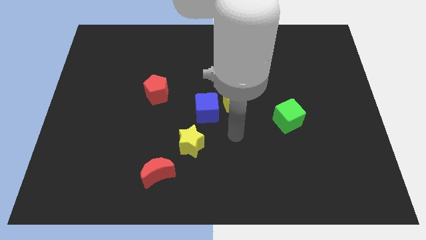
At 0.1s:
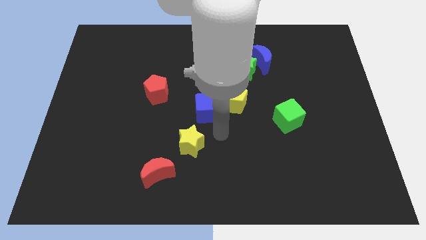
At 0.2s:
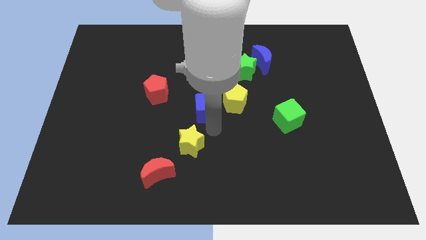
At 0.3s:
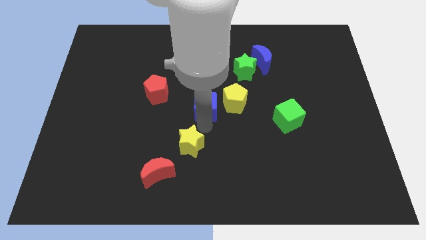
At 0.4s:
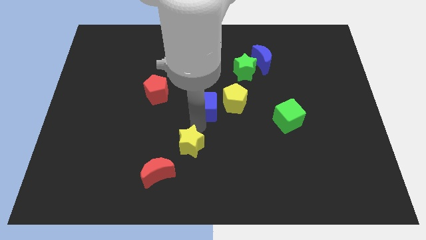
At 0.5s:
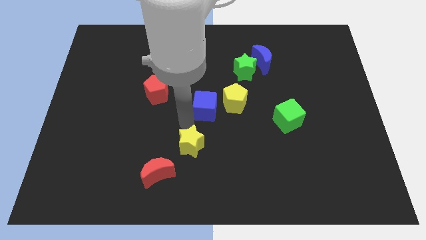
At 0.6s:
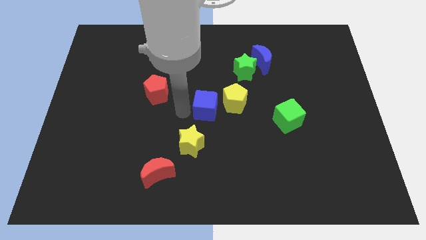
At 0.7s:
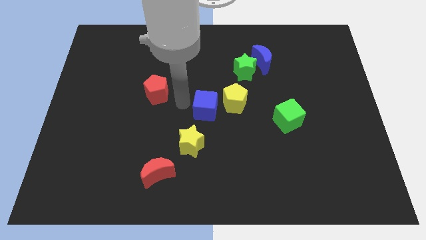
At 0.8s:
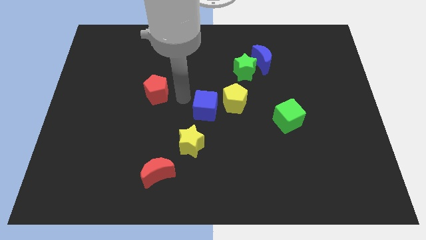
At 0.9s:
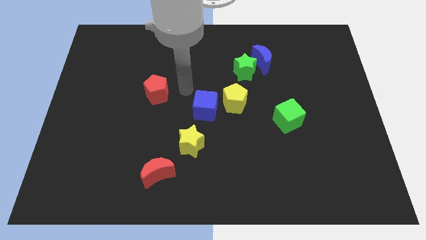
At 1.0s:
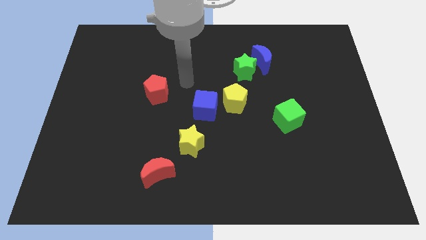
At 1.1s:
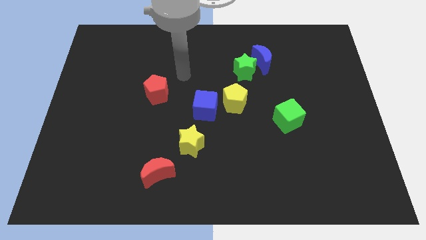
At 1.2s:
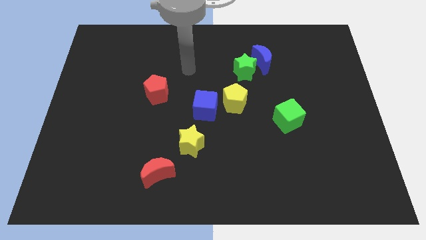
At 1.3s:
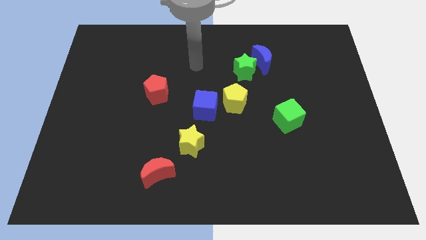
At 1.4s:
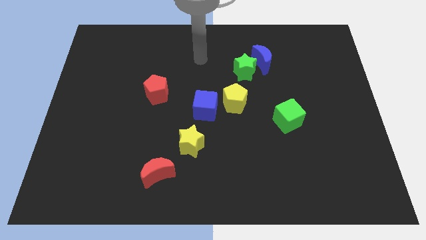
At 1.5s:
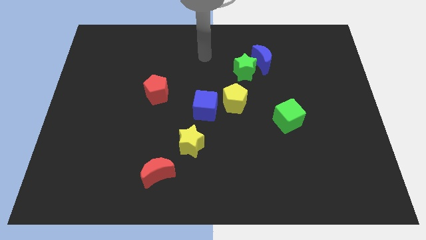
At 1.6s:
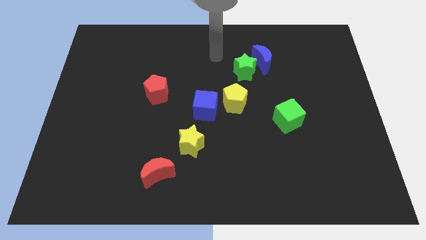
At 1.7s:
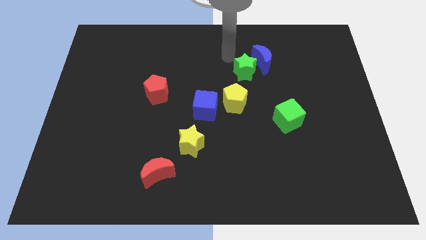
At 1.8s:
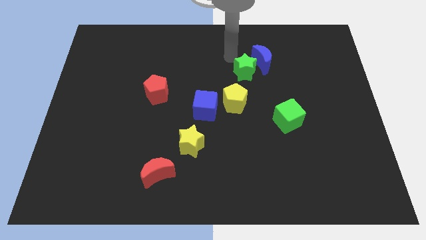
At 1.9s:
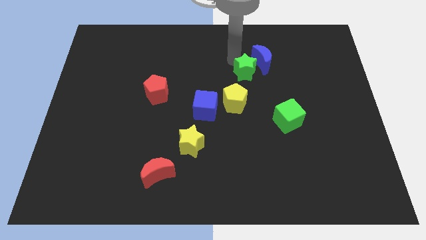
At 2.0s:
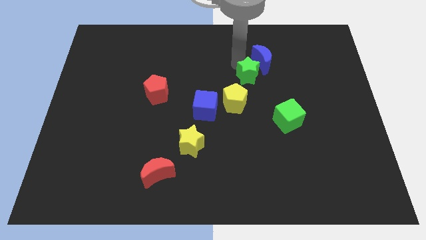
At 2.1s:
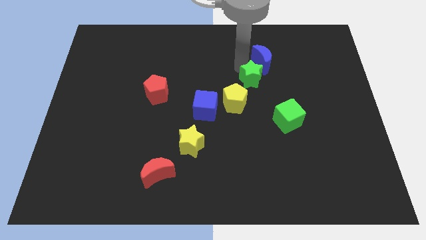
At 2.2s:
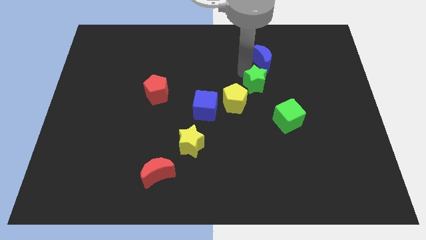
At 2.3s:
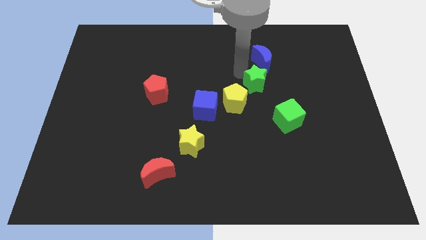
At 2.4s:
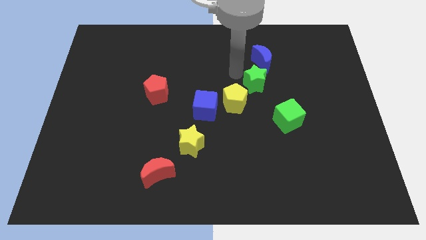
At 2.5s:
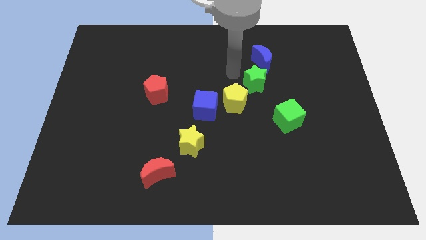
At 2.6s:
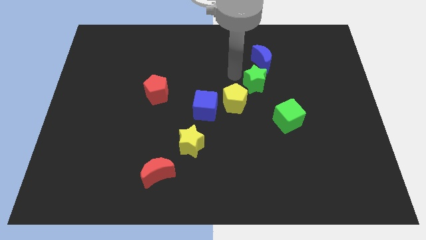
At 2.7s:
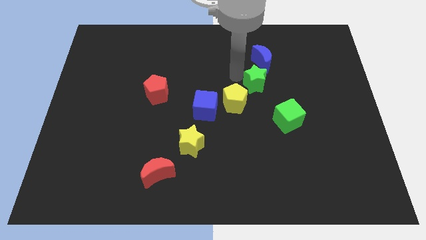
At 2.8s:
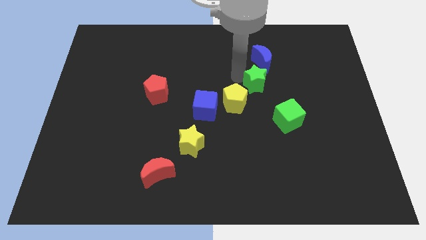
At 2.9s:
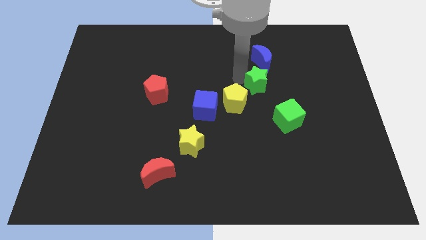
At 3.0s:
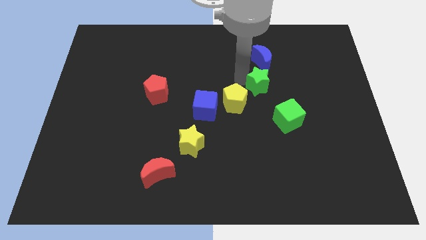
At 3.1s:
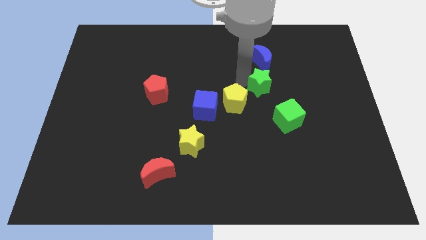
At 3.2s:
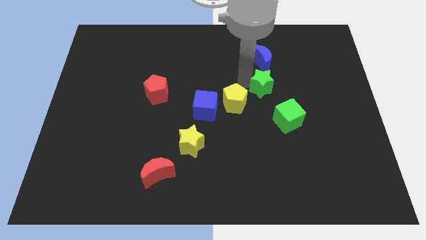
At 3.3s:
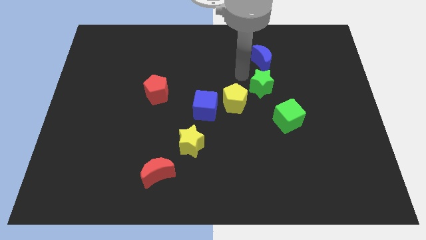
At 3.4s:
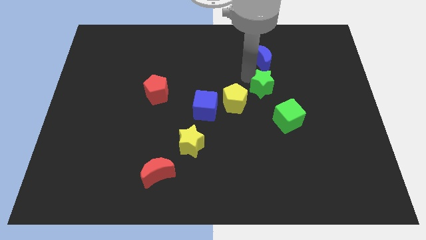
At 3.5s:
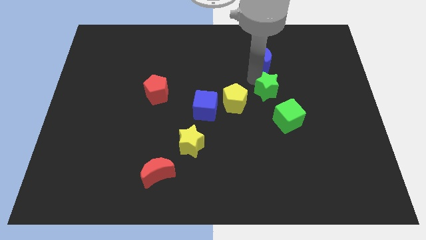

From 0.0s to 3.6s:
push the green star slightly down and to the right diagonally

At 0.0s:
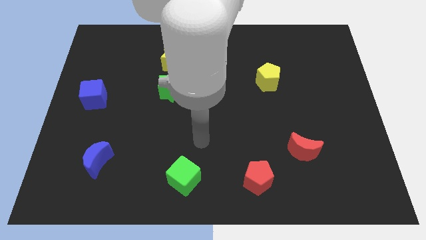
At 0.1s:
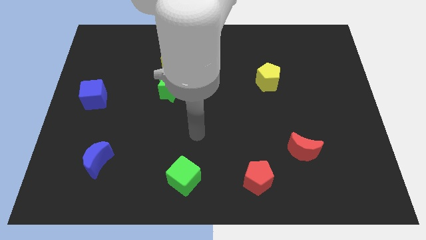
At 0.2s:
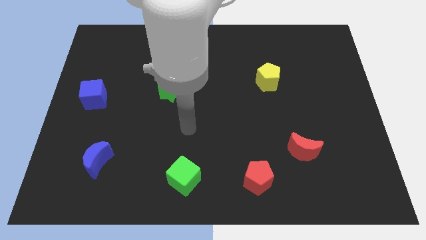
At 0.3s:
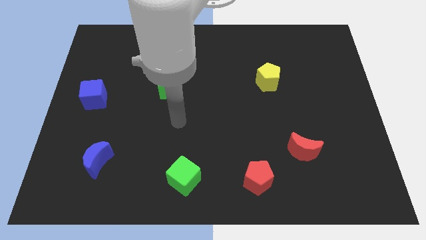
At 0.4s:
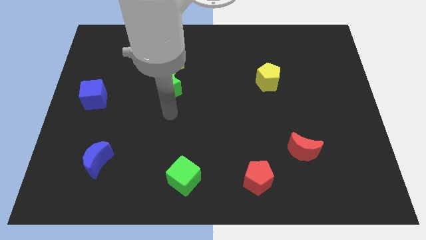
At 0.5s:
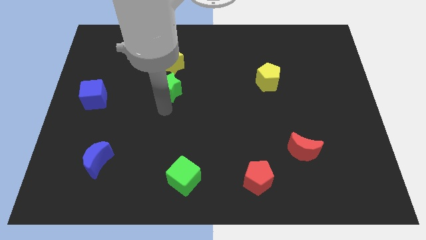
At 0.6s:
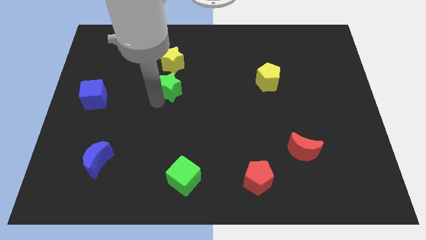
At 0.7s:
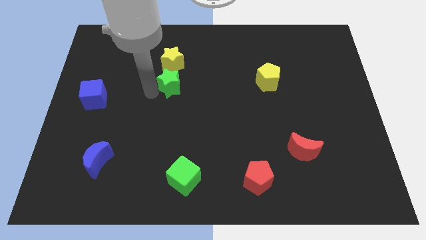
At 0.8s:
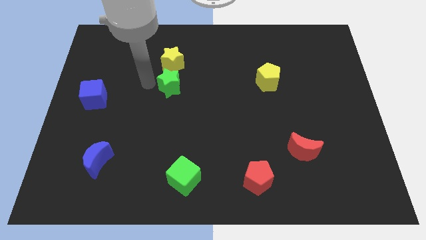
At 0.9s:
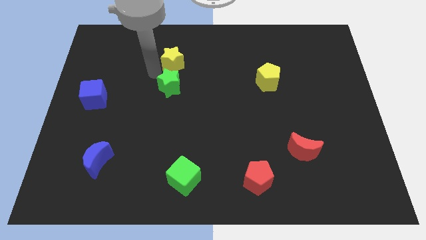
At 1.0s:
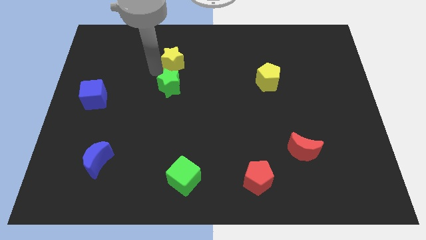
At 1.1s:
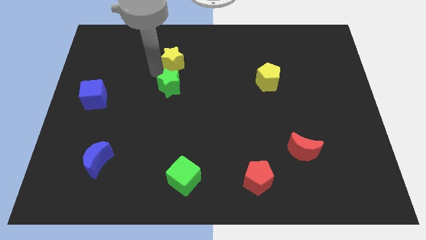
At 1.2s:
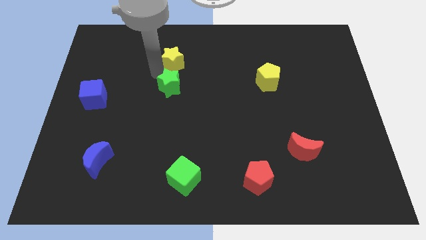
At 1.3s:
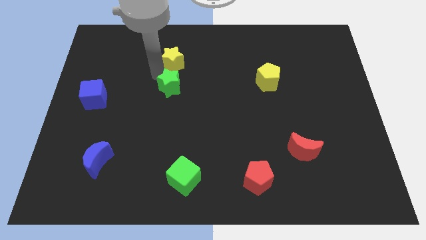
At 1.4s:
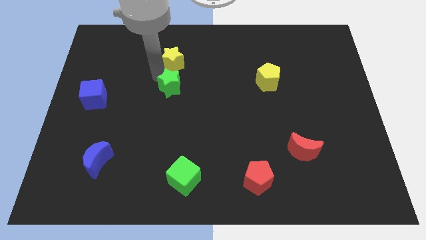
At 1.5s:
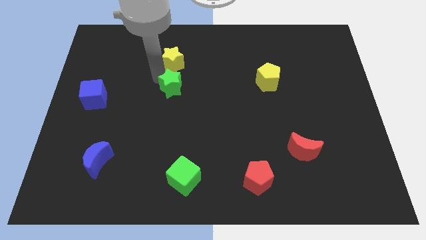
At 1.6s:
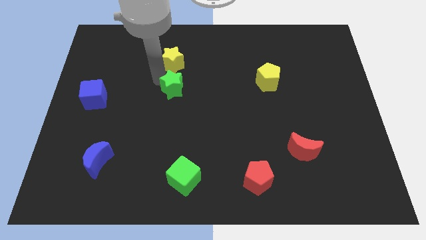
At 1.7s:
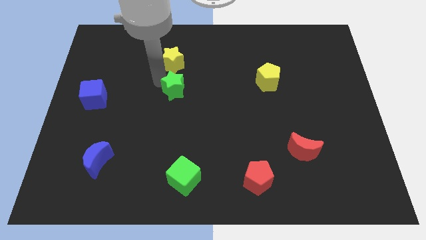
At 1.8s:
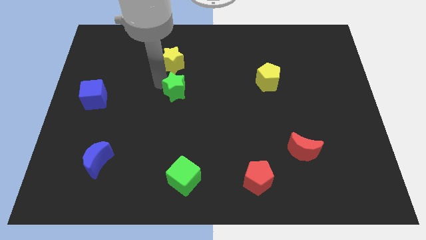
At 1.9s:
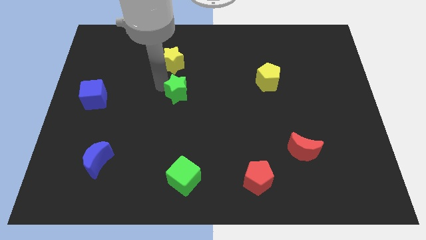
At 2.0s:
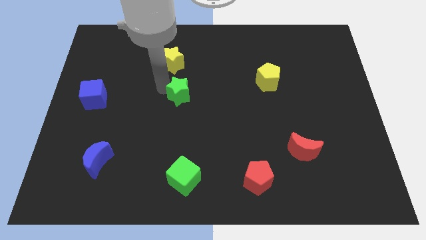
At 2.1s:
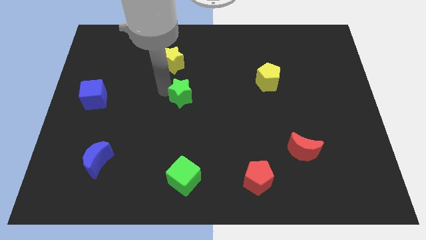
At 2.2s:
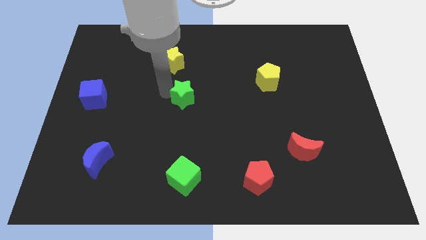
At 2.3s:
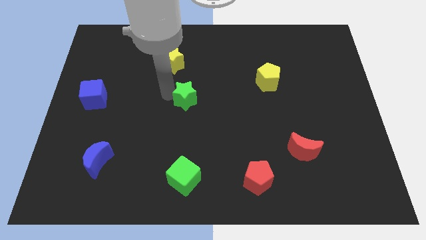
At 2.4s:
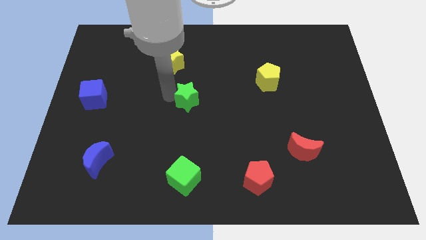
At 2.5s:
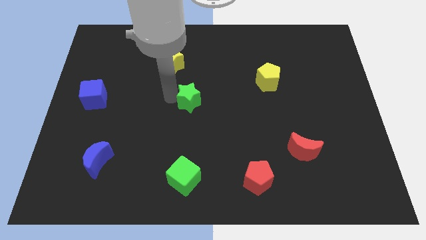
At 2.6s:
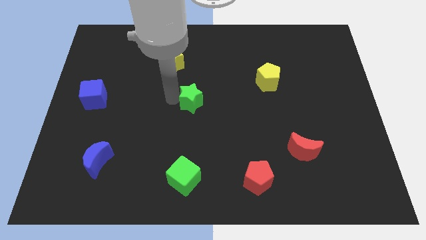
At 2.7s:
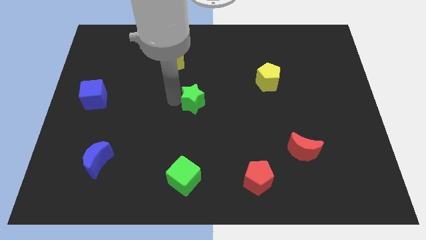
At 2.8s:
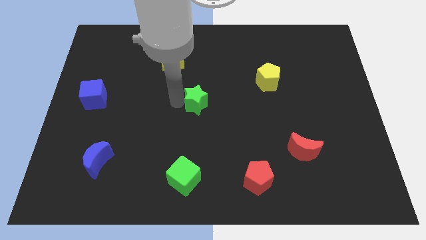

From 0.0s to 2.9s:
push the green star downwards and right diagonally a little

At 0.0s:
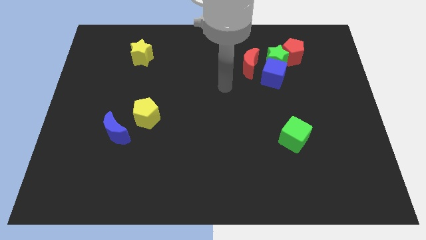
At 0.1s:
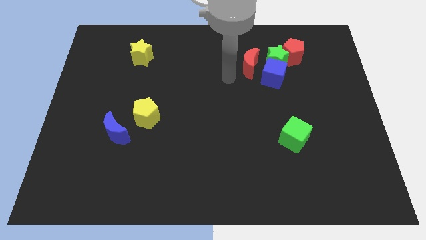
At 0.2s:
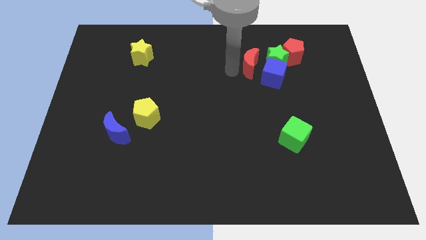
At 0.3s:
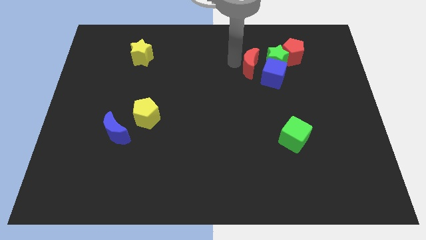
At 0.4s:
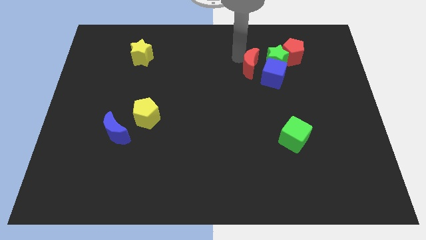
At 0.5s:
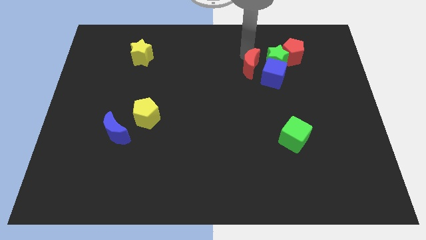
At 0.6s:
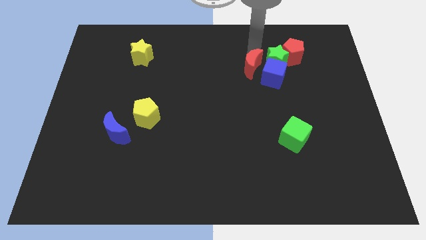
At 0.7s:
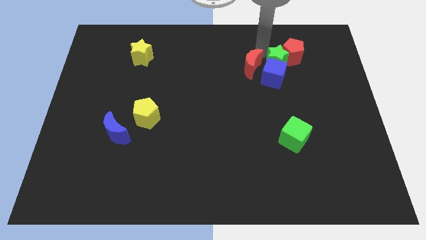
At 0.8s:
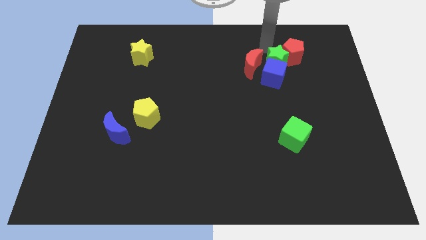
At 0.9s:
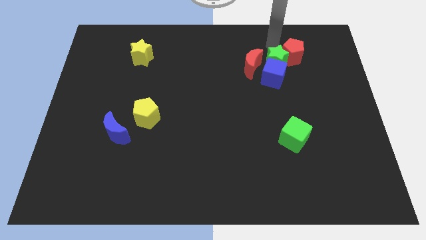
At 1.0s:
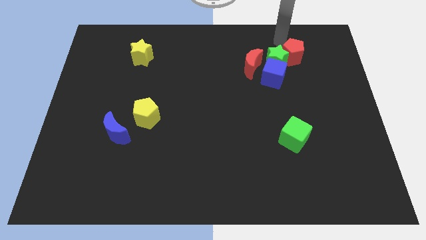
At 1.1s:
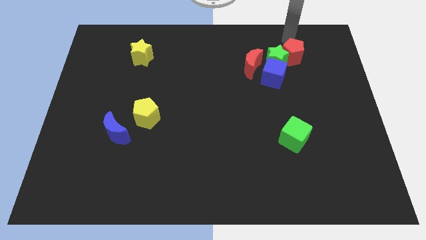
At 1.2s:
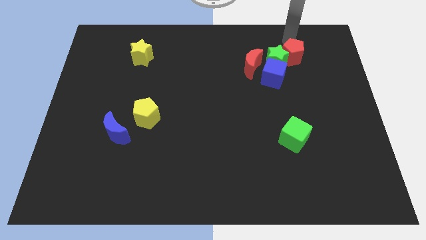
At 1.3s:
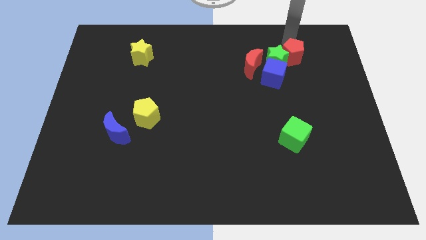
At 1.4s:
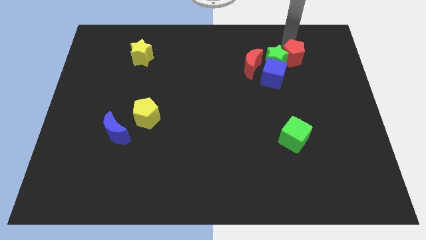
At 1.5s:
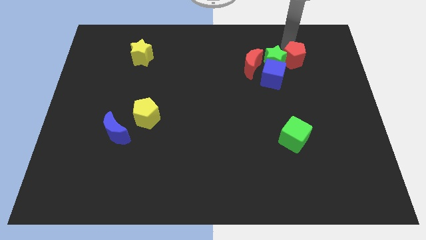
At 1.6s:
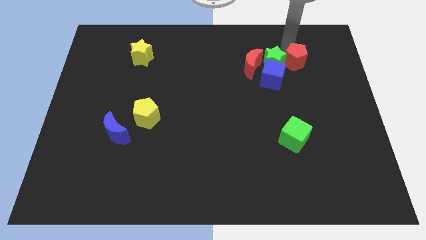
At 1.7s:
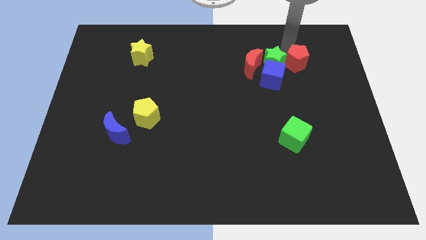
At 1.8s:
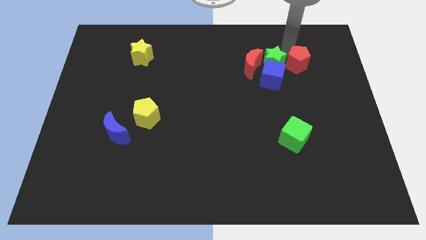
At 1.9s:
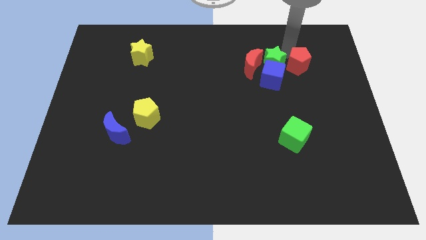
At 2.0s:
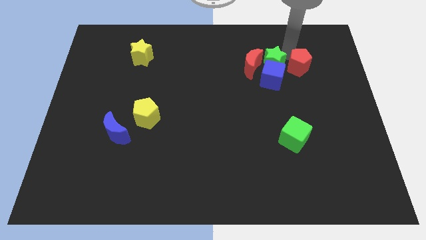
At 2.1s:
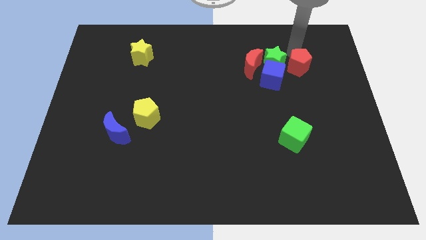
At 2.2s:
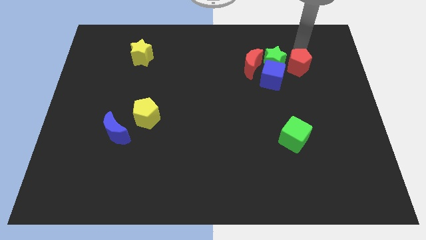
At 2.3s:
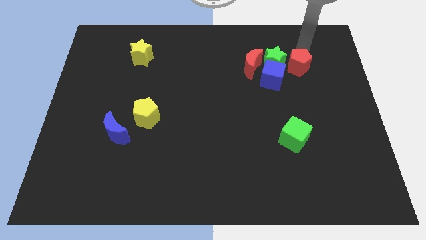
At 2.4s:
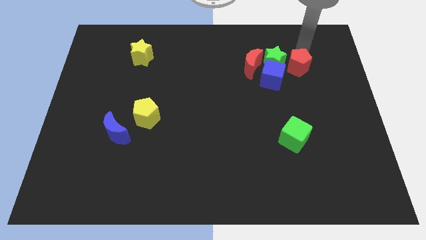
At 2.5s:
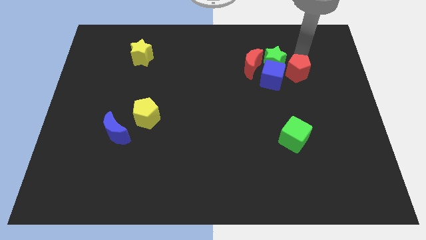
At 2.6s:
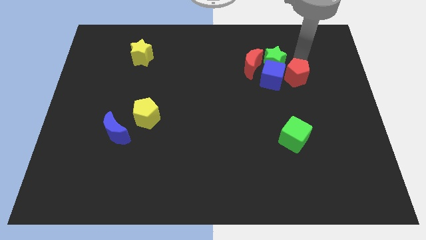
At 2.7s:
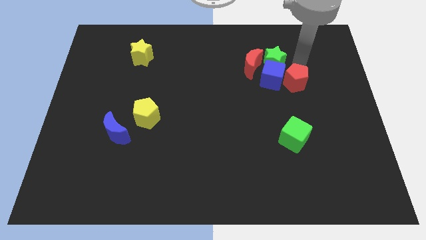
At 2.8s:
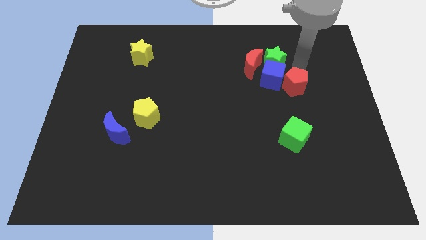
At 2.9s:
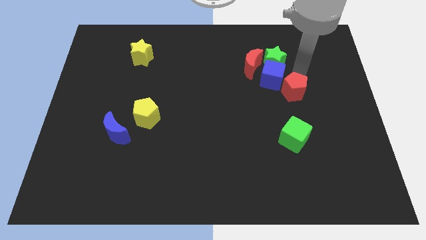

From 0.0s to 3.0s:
slightly move the red pentagon diagonally downwards and left
